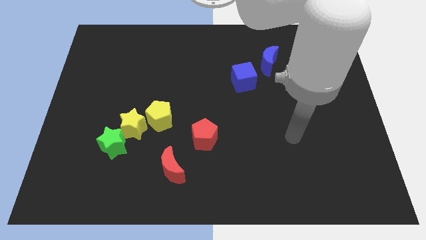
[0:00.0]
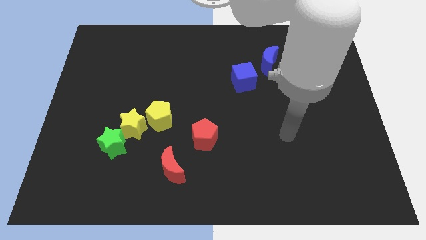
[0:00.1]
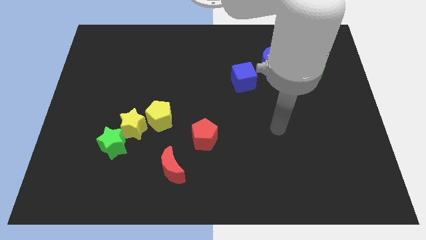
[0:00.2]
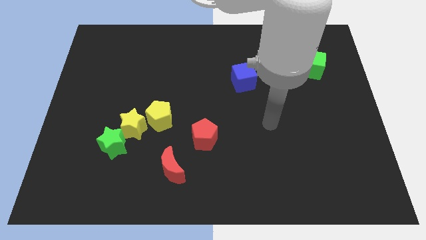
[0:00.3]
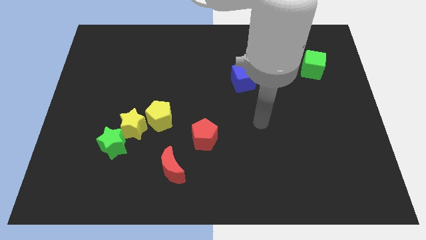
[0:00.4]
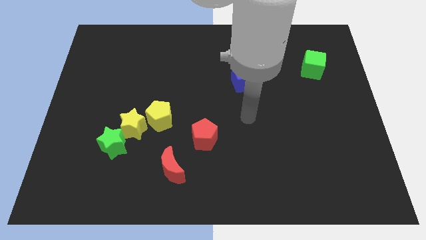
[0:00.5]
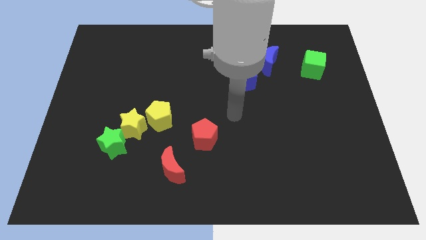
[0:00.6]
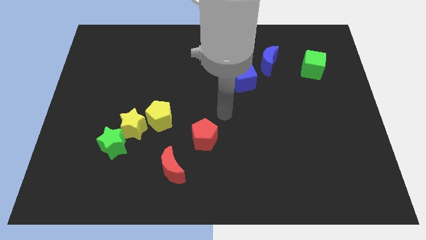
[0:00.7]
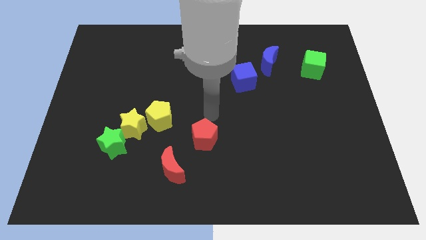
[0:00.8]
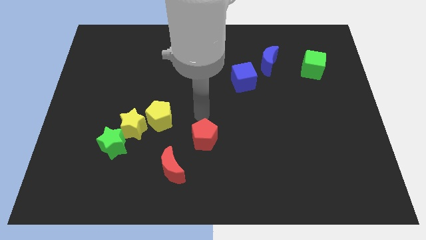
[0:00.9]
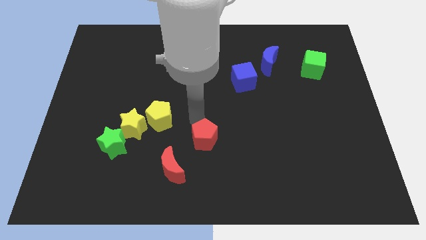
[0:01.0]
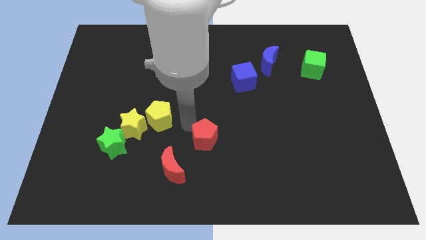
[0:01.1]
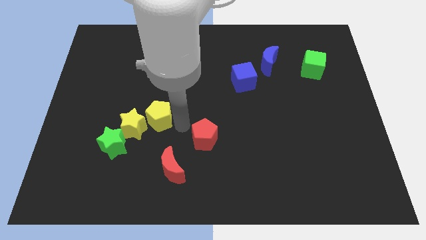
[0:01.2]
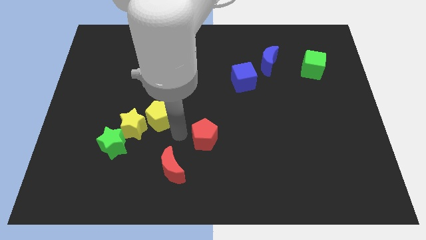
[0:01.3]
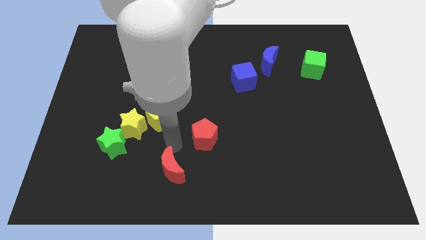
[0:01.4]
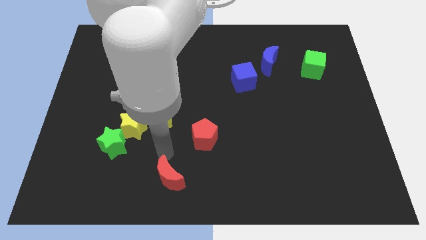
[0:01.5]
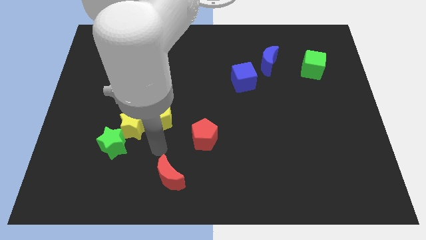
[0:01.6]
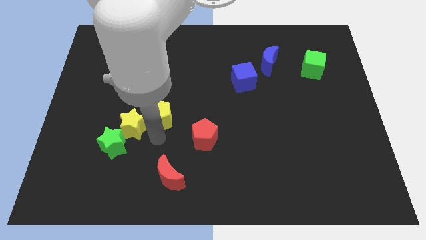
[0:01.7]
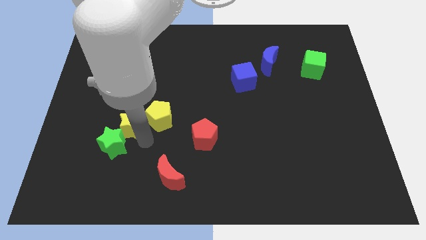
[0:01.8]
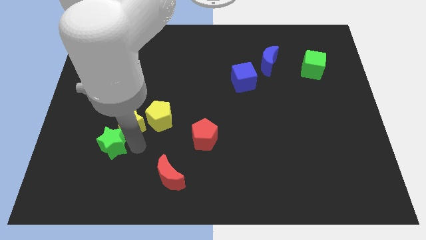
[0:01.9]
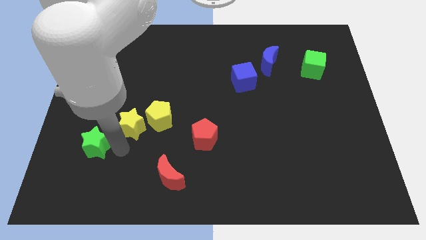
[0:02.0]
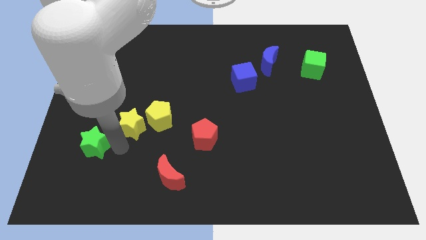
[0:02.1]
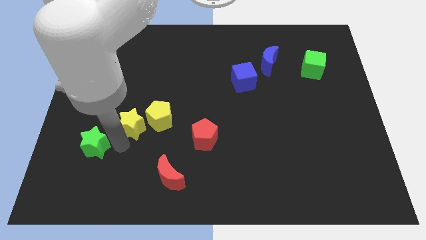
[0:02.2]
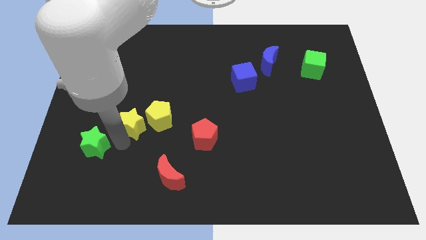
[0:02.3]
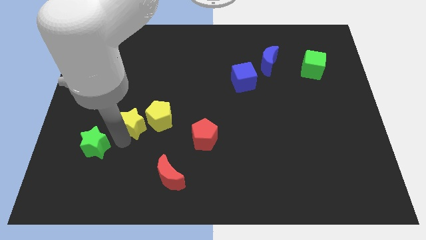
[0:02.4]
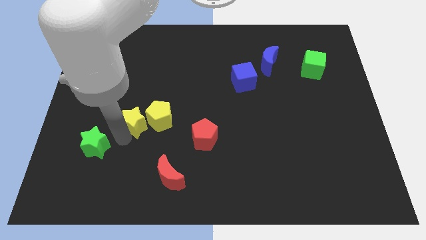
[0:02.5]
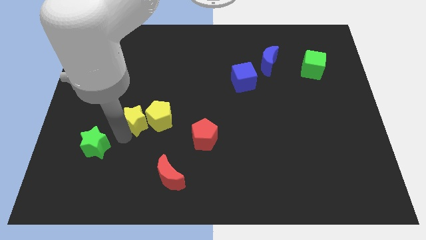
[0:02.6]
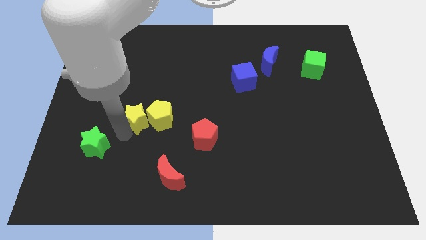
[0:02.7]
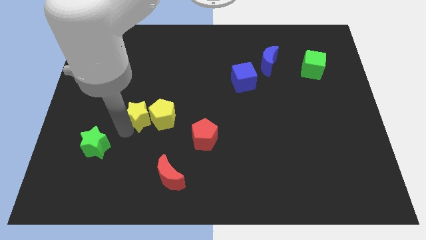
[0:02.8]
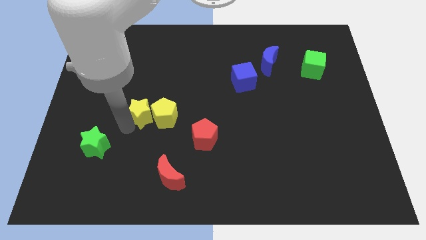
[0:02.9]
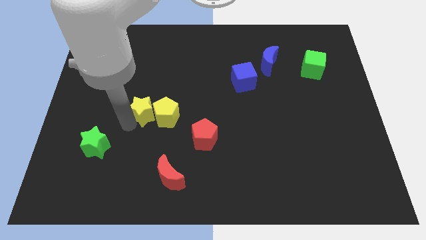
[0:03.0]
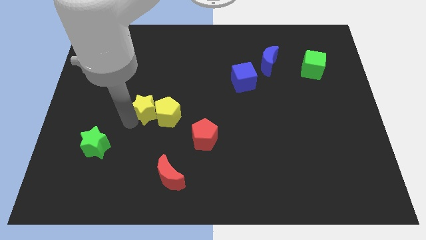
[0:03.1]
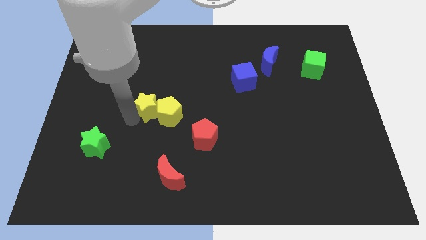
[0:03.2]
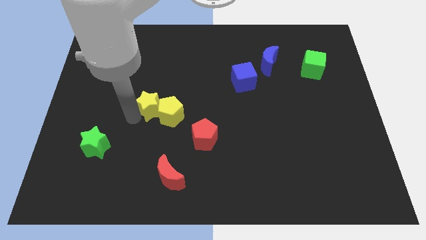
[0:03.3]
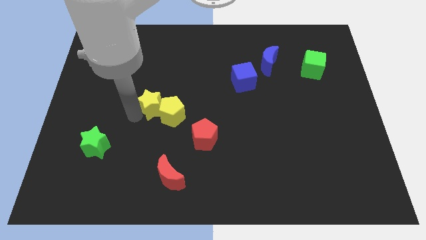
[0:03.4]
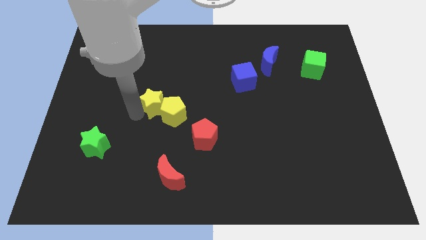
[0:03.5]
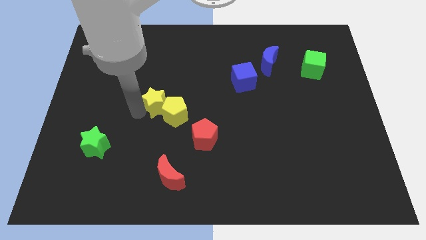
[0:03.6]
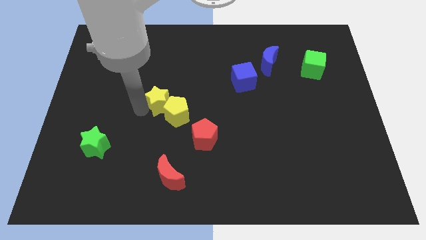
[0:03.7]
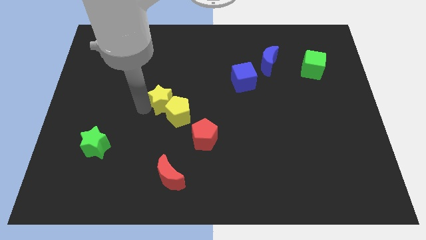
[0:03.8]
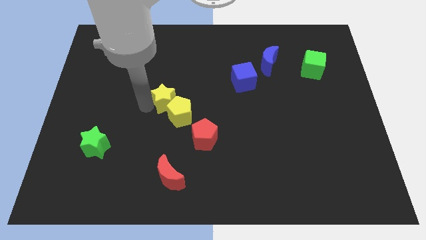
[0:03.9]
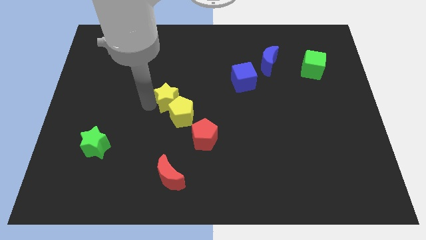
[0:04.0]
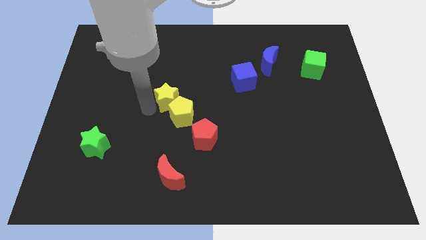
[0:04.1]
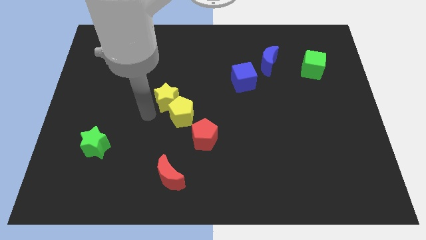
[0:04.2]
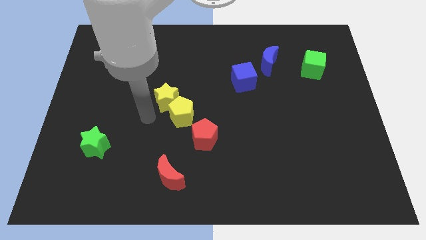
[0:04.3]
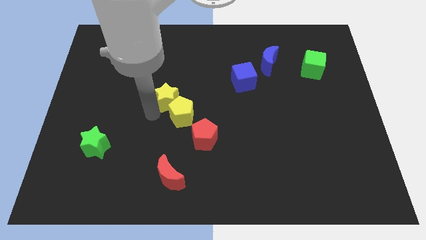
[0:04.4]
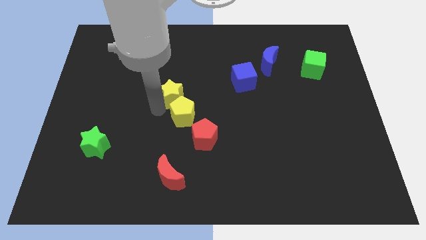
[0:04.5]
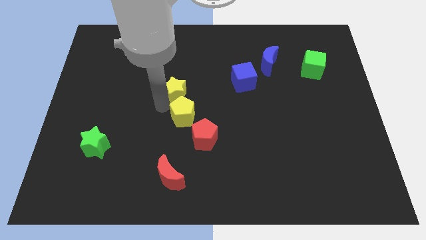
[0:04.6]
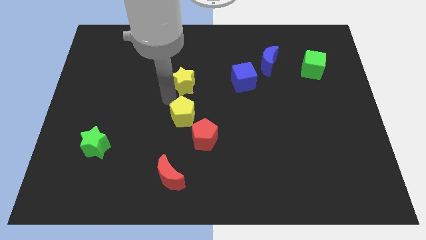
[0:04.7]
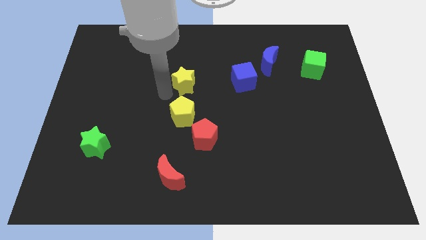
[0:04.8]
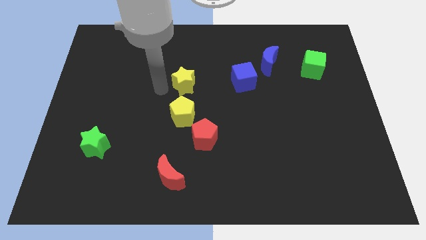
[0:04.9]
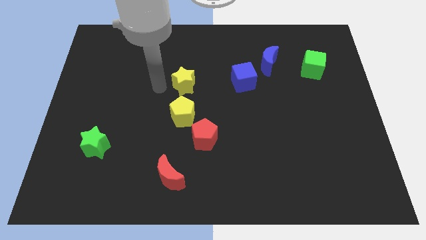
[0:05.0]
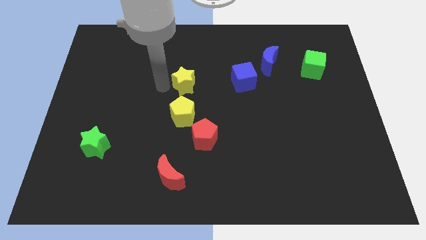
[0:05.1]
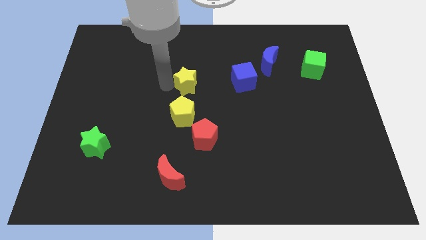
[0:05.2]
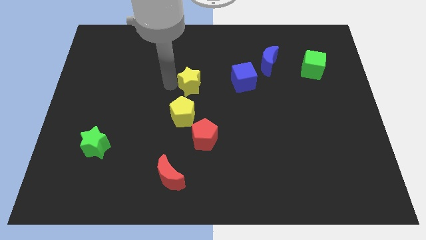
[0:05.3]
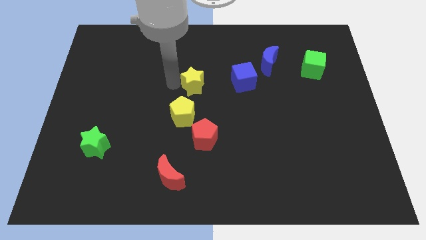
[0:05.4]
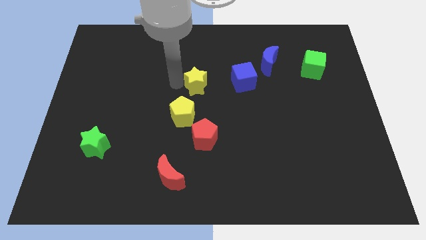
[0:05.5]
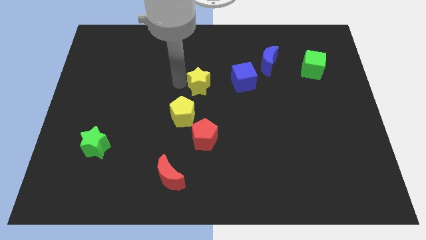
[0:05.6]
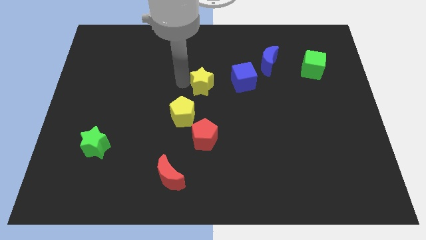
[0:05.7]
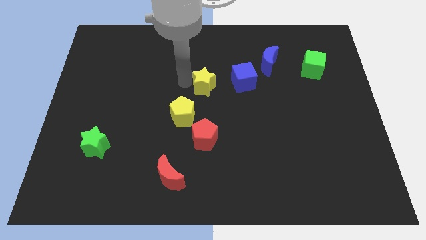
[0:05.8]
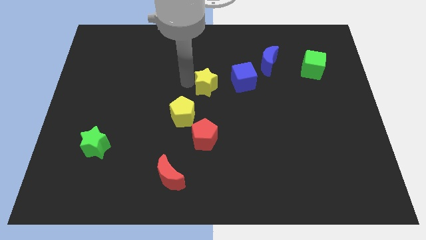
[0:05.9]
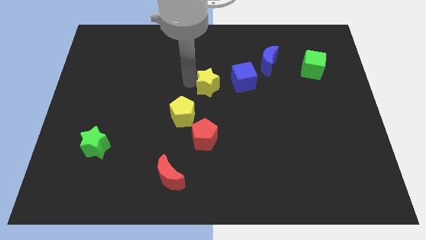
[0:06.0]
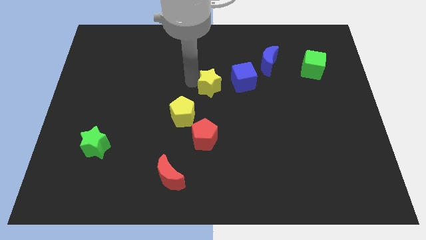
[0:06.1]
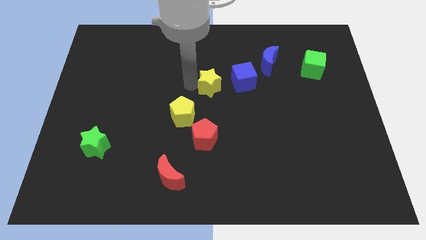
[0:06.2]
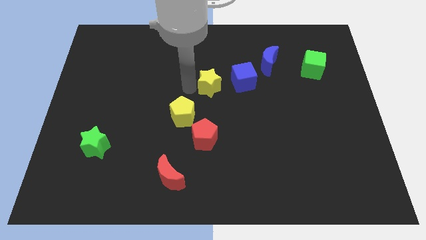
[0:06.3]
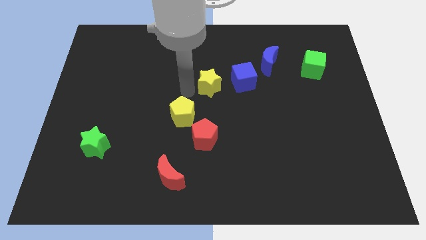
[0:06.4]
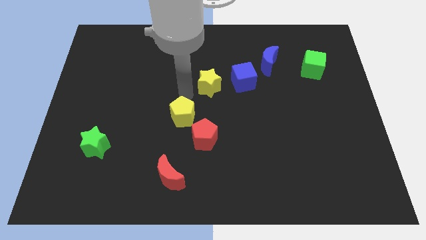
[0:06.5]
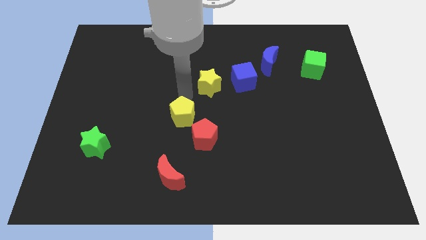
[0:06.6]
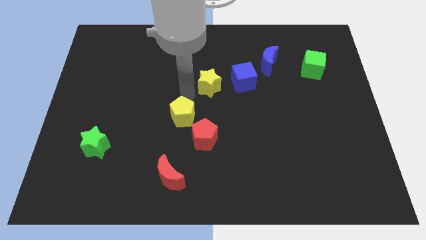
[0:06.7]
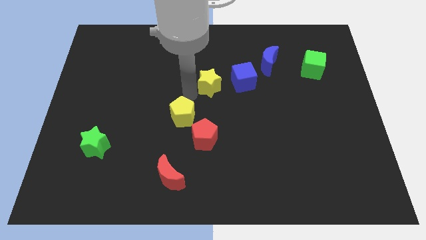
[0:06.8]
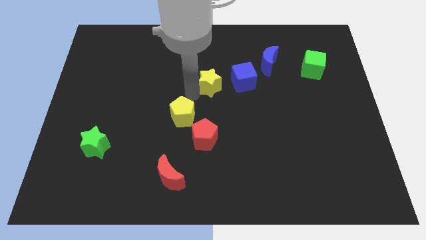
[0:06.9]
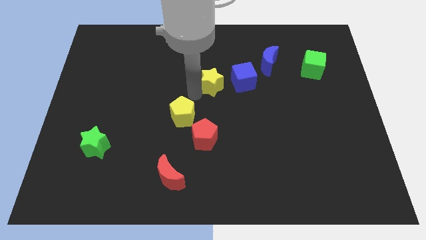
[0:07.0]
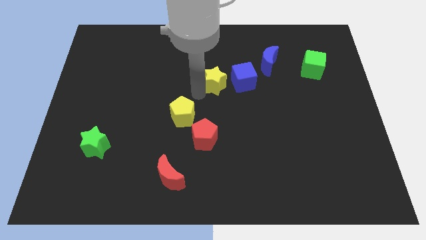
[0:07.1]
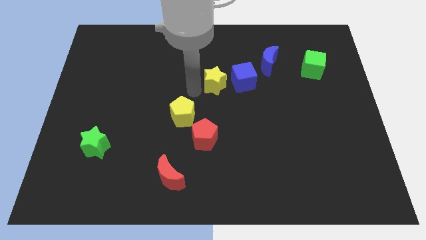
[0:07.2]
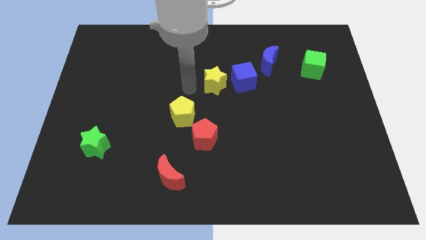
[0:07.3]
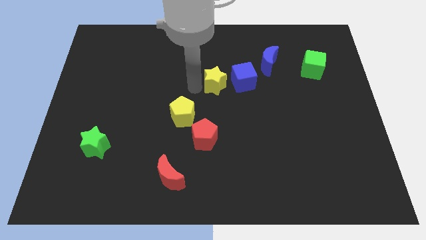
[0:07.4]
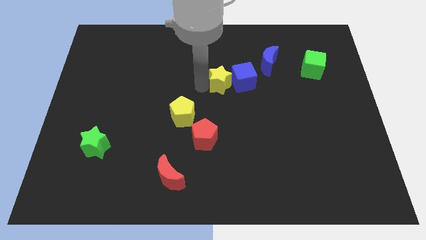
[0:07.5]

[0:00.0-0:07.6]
put the yellow star next to the blue cube

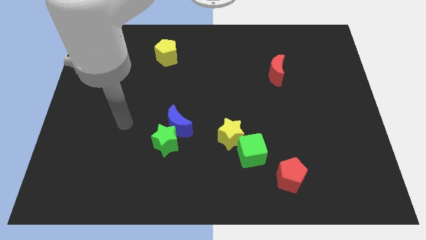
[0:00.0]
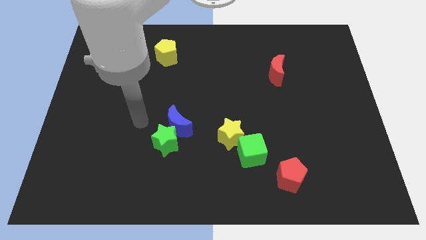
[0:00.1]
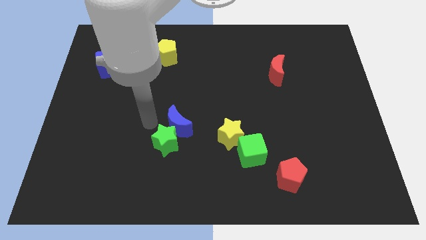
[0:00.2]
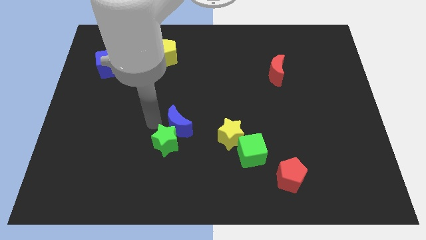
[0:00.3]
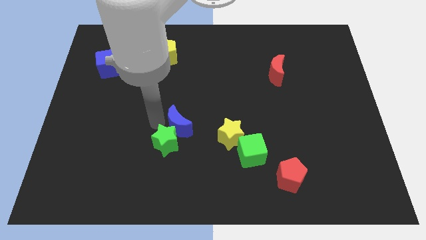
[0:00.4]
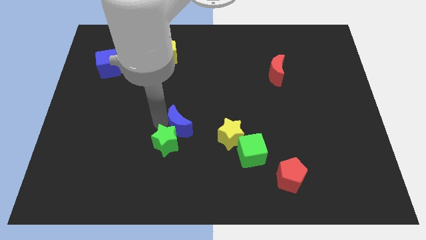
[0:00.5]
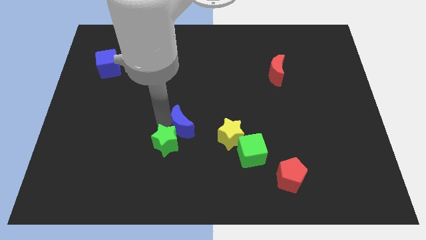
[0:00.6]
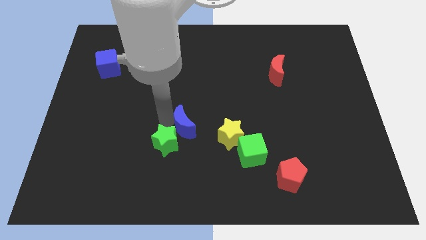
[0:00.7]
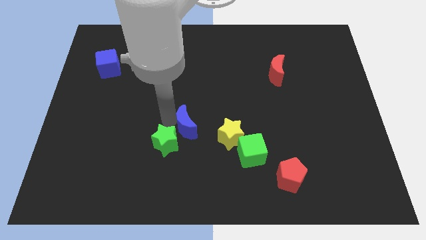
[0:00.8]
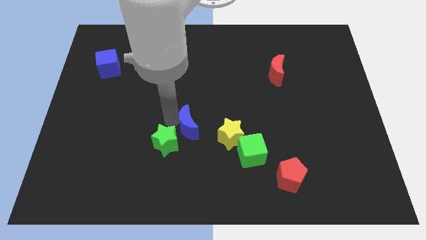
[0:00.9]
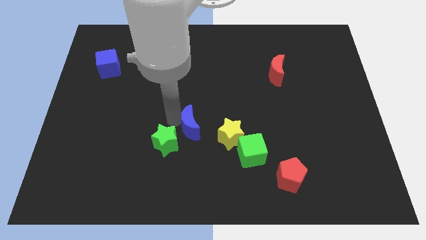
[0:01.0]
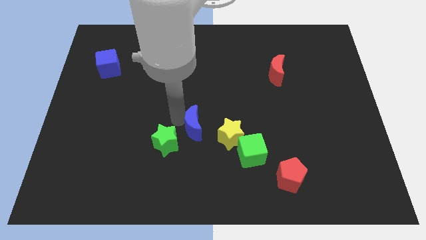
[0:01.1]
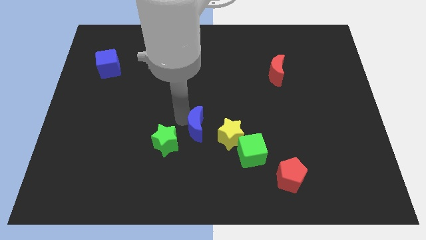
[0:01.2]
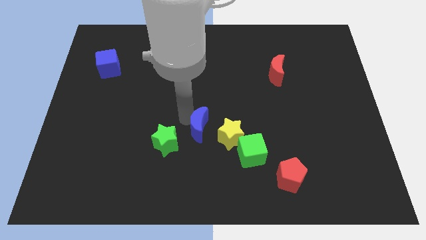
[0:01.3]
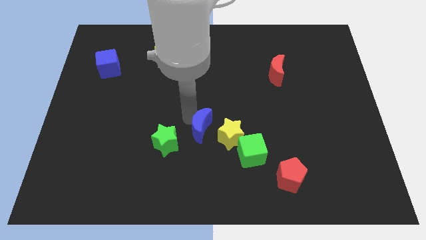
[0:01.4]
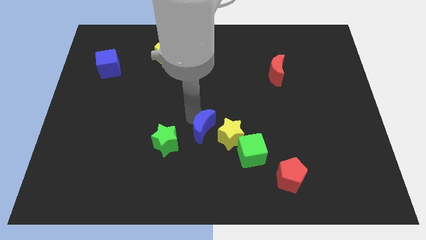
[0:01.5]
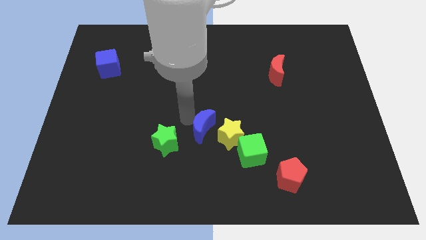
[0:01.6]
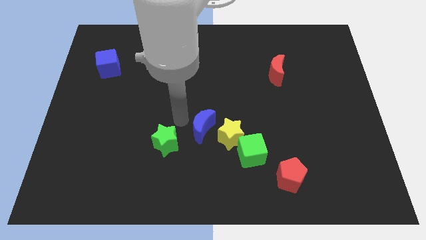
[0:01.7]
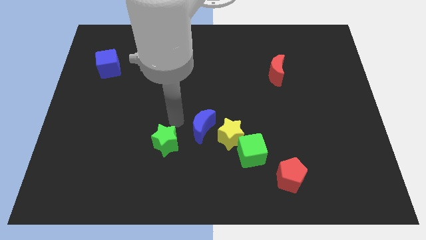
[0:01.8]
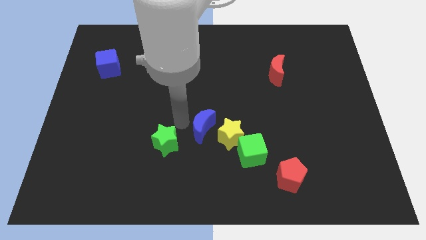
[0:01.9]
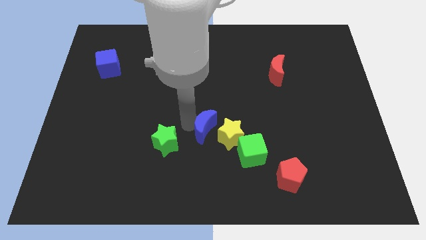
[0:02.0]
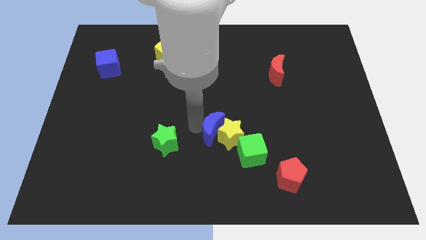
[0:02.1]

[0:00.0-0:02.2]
put the blue moon close to the yellow star
